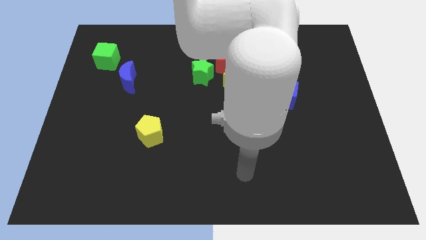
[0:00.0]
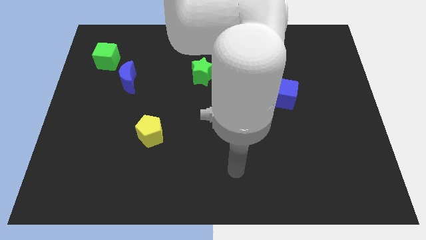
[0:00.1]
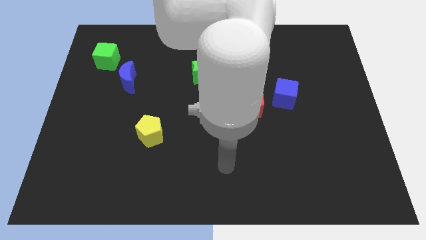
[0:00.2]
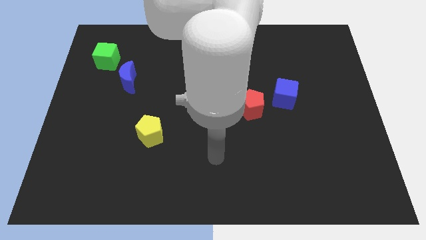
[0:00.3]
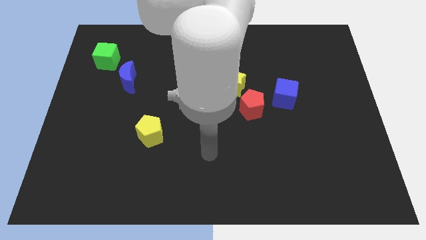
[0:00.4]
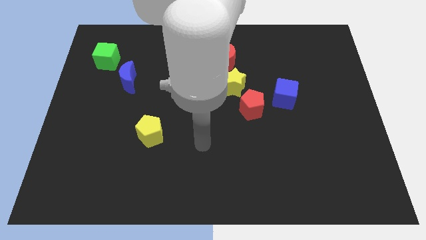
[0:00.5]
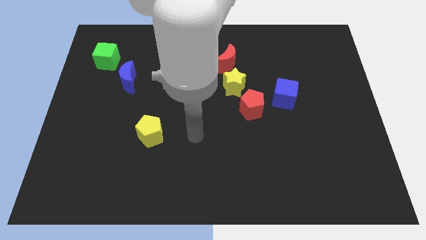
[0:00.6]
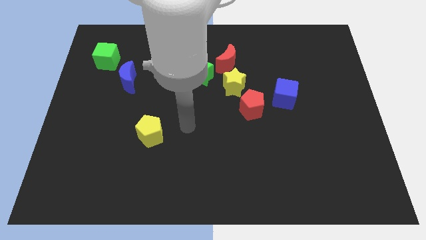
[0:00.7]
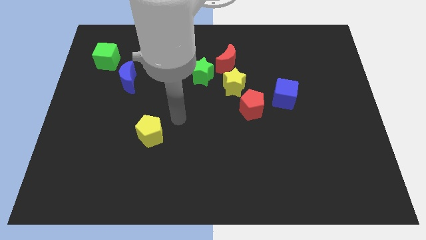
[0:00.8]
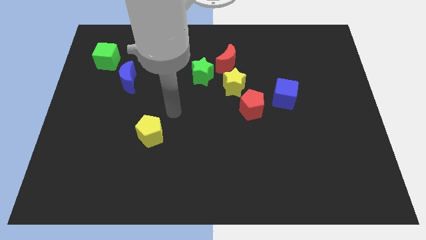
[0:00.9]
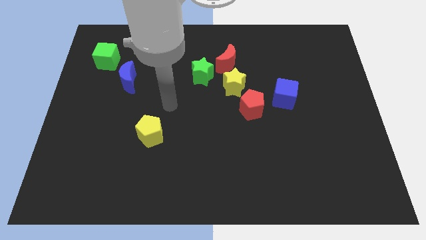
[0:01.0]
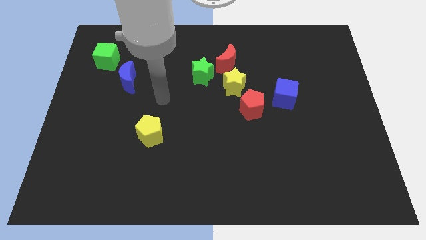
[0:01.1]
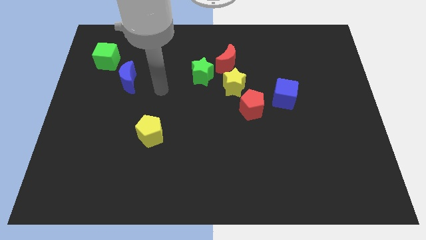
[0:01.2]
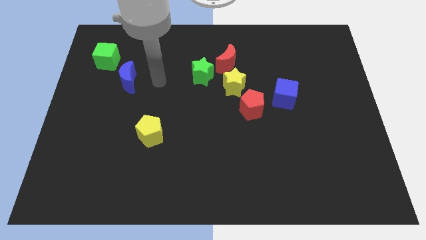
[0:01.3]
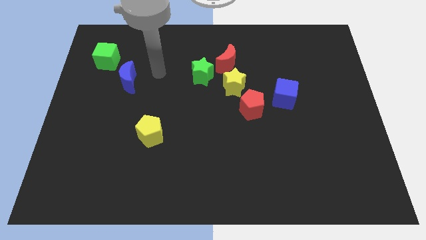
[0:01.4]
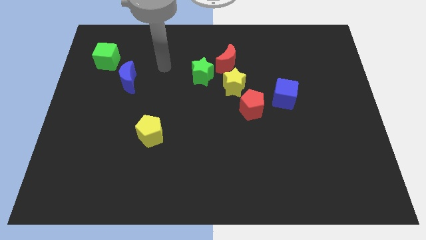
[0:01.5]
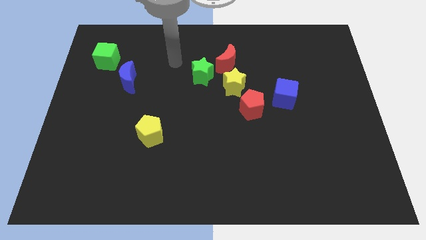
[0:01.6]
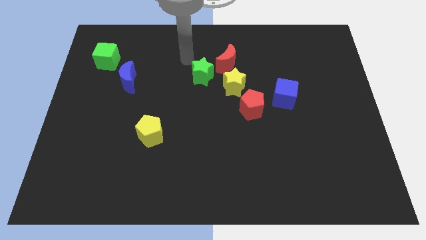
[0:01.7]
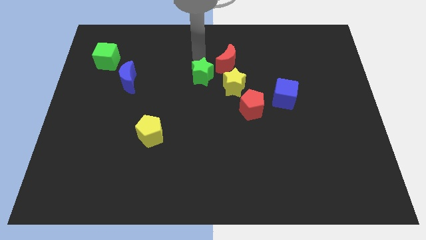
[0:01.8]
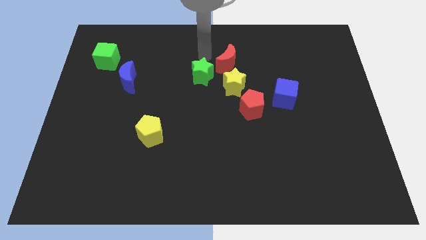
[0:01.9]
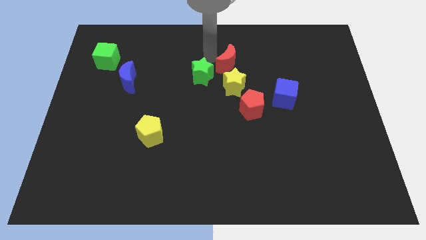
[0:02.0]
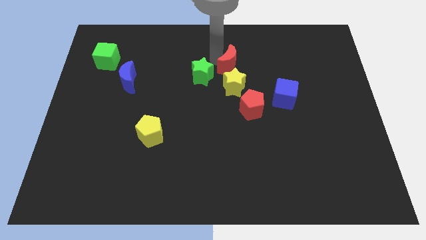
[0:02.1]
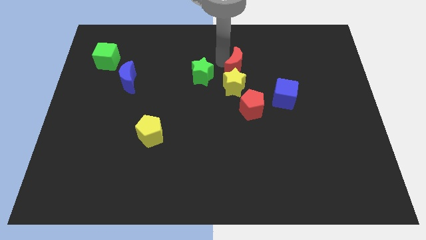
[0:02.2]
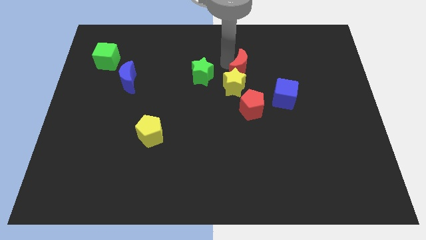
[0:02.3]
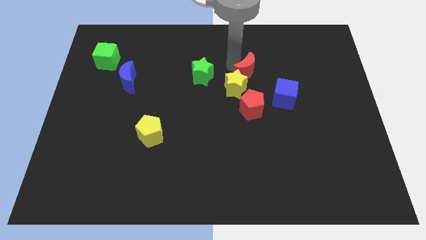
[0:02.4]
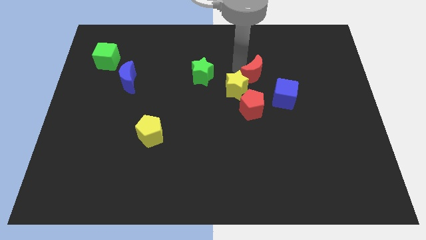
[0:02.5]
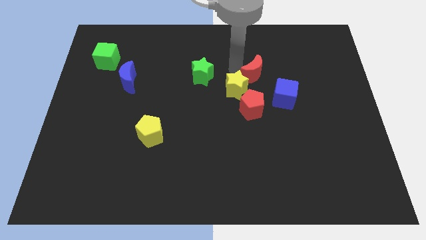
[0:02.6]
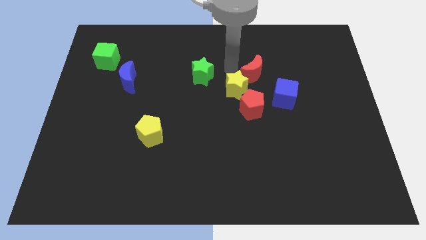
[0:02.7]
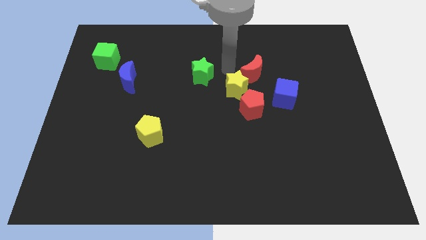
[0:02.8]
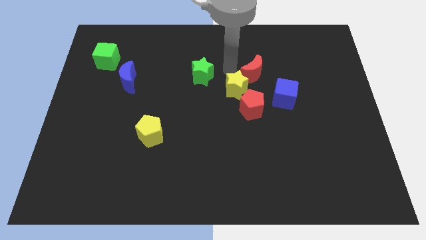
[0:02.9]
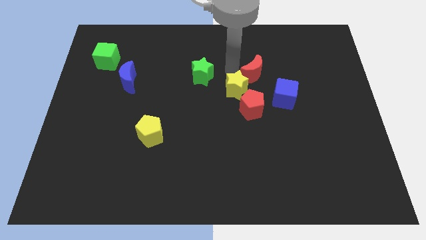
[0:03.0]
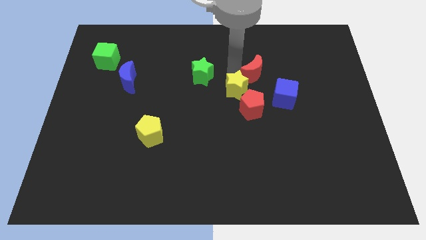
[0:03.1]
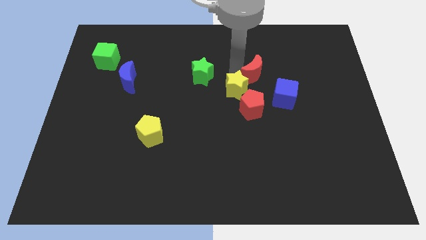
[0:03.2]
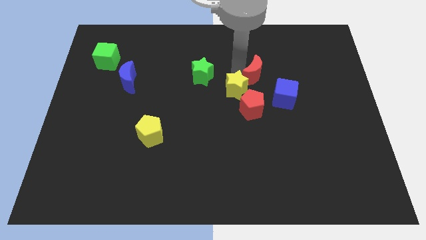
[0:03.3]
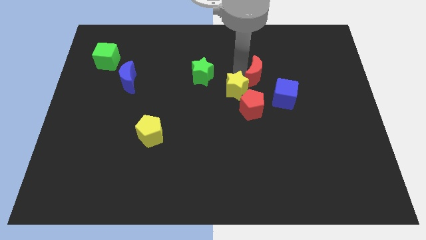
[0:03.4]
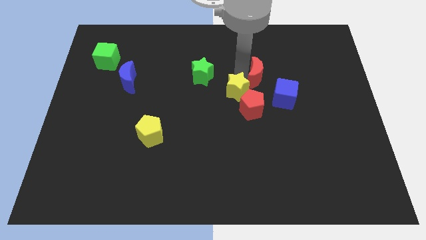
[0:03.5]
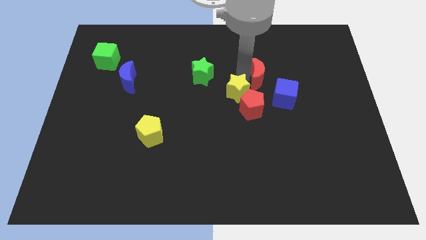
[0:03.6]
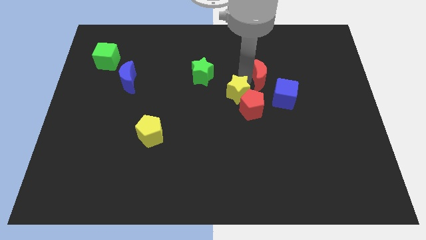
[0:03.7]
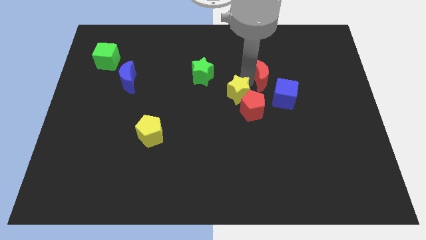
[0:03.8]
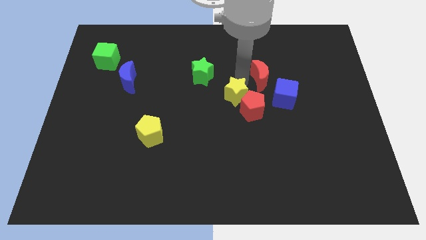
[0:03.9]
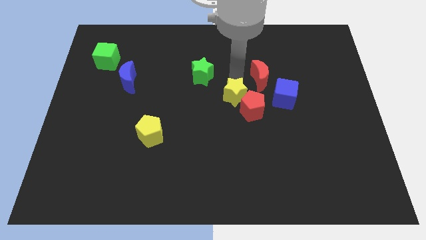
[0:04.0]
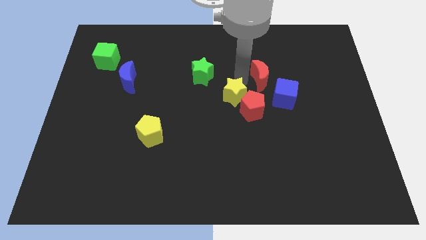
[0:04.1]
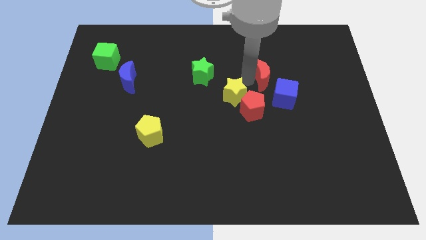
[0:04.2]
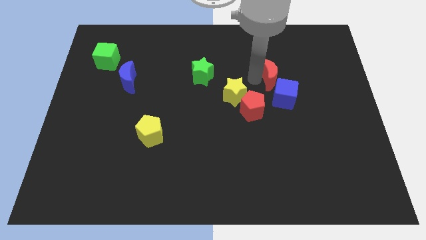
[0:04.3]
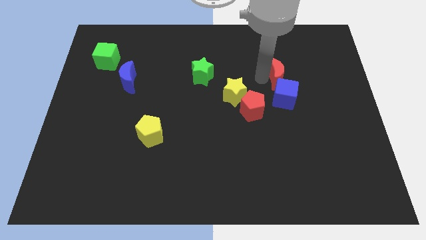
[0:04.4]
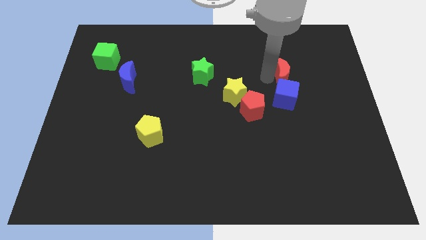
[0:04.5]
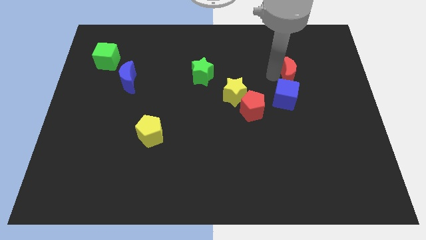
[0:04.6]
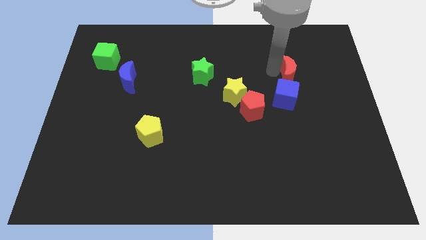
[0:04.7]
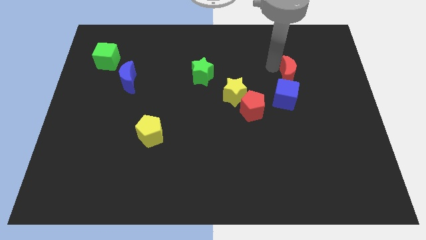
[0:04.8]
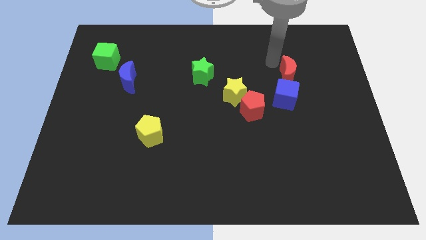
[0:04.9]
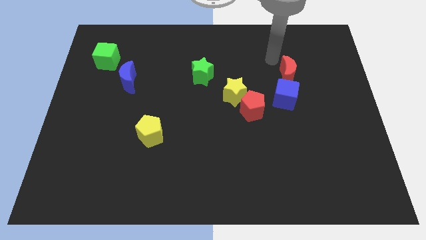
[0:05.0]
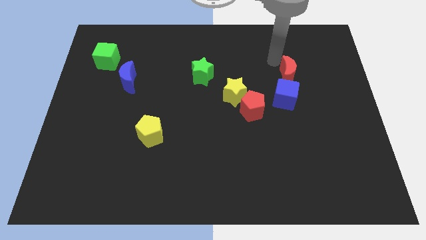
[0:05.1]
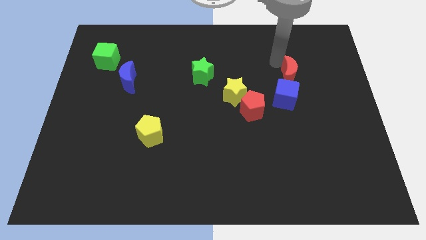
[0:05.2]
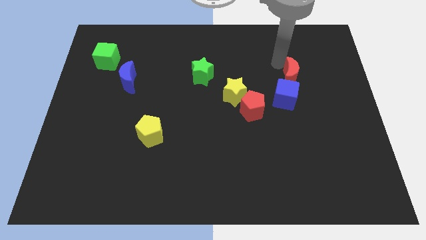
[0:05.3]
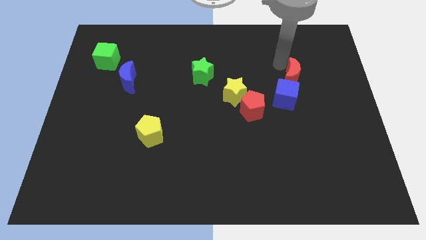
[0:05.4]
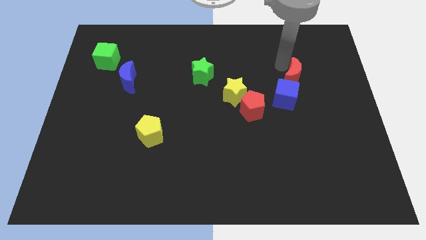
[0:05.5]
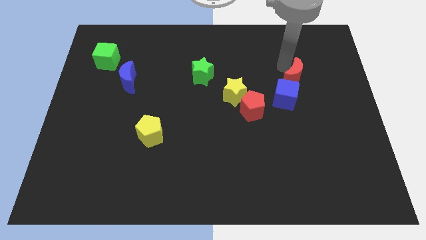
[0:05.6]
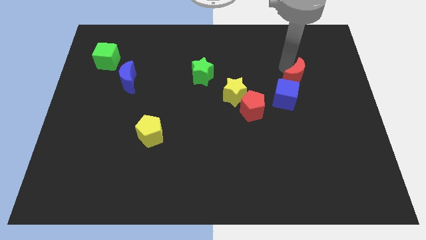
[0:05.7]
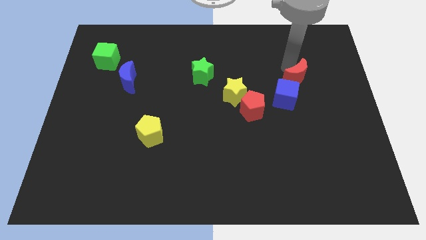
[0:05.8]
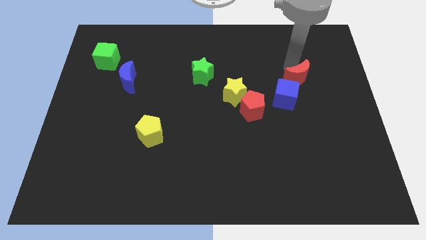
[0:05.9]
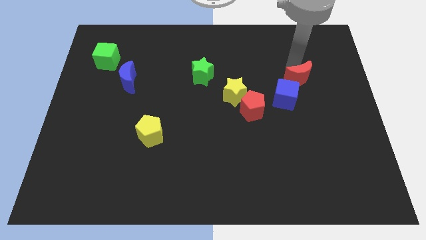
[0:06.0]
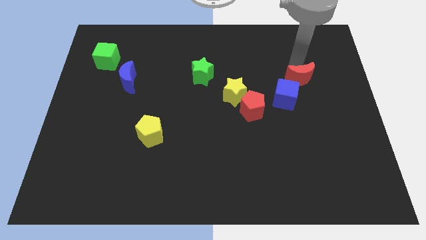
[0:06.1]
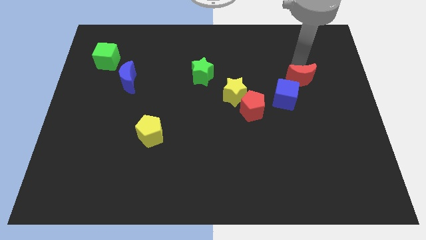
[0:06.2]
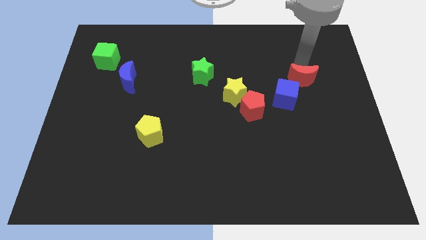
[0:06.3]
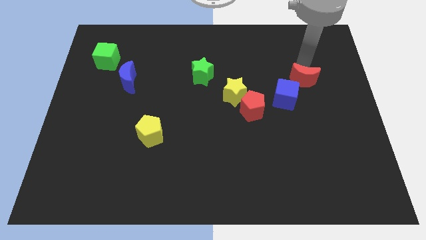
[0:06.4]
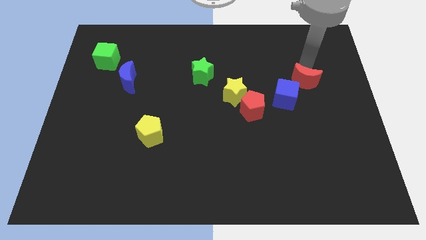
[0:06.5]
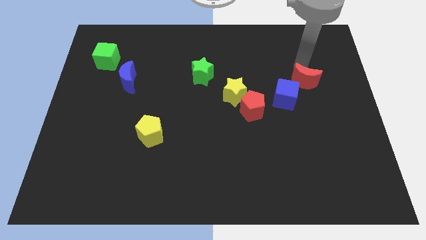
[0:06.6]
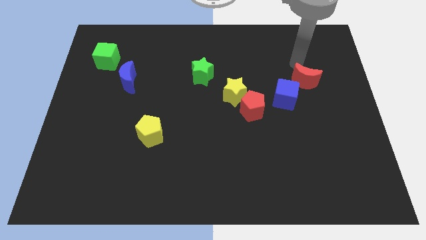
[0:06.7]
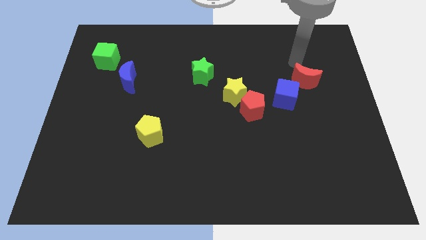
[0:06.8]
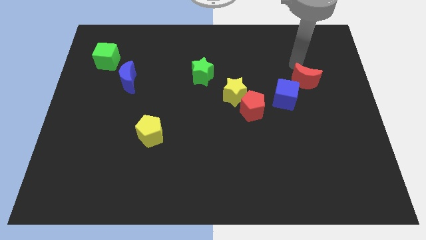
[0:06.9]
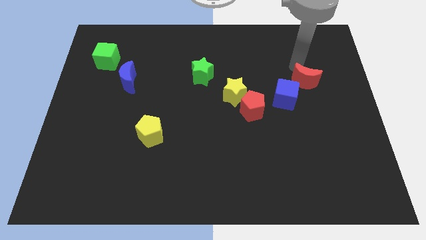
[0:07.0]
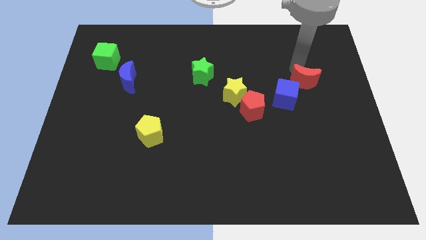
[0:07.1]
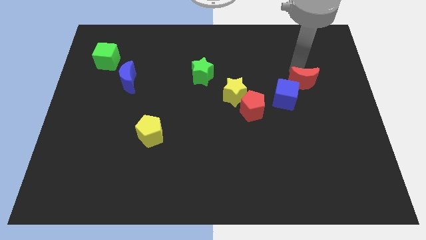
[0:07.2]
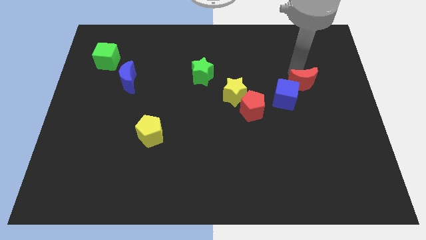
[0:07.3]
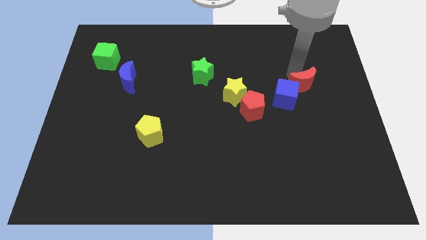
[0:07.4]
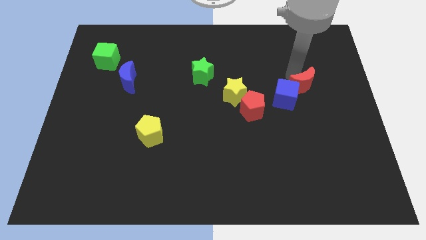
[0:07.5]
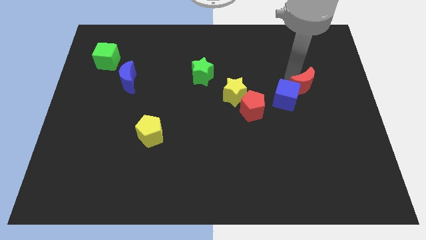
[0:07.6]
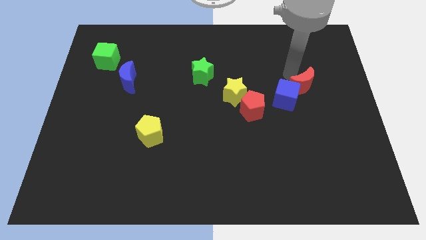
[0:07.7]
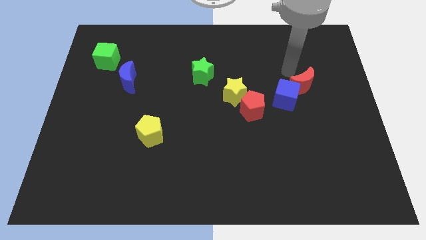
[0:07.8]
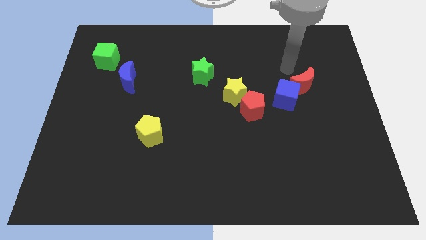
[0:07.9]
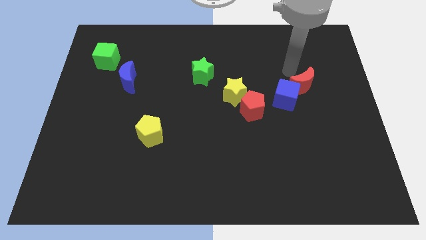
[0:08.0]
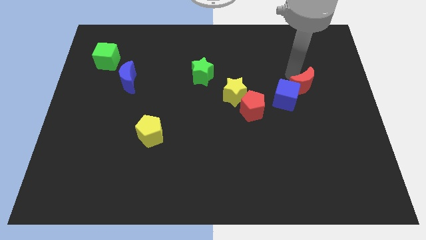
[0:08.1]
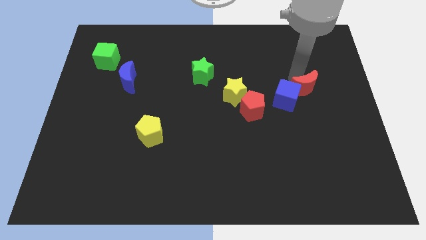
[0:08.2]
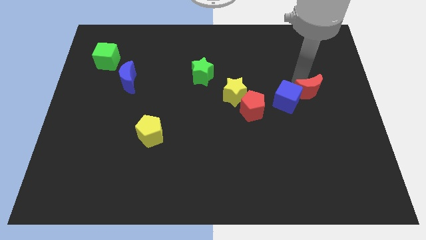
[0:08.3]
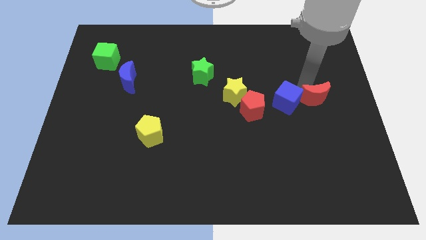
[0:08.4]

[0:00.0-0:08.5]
slide the red moon downwards and then to the right
